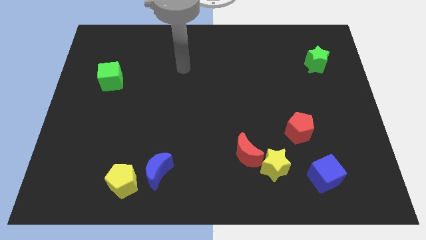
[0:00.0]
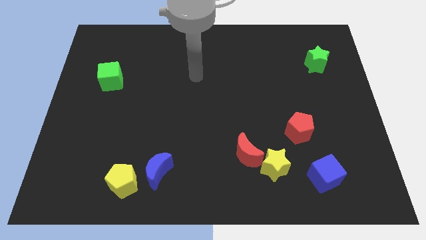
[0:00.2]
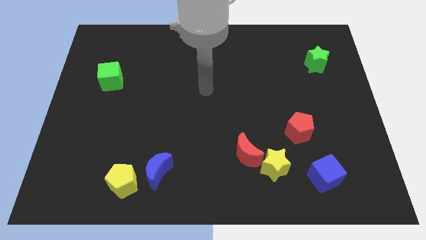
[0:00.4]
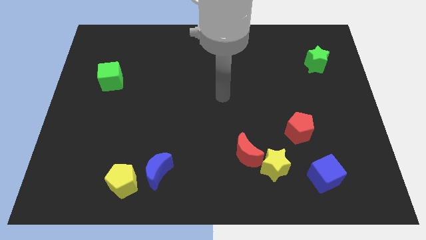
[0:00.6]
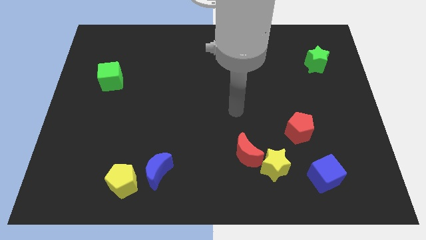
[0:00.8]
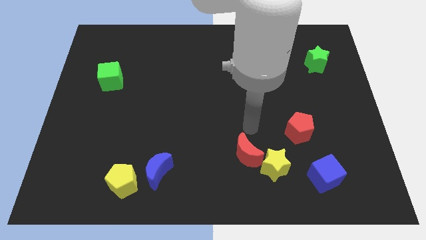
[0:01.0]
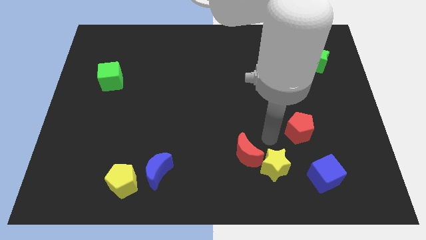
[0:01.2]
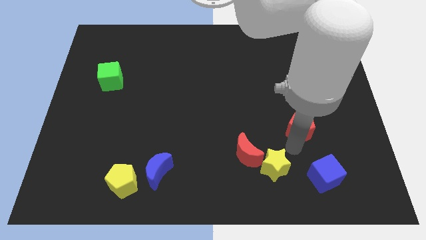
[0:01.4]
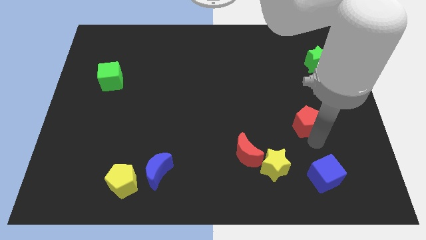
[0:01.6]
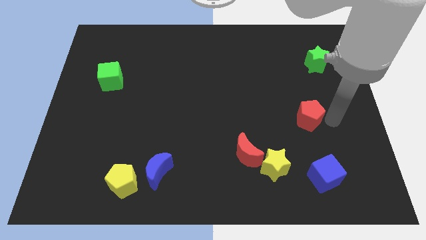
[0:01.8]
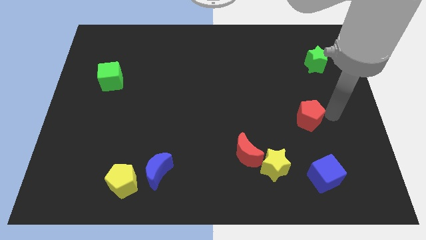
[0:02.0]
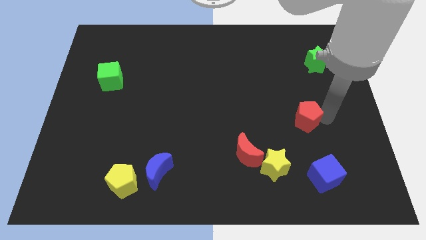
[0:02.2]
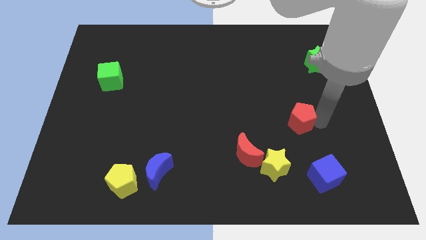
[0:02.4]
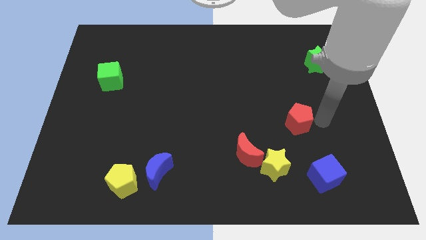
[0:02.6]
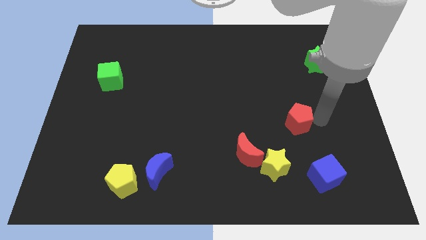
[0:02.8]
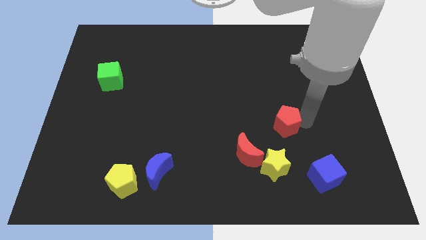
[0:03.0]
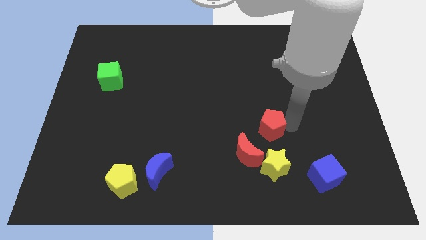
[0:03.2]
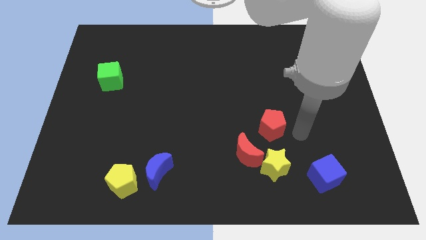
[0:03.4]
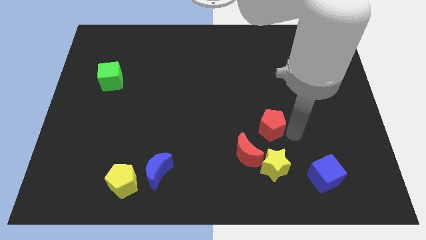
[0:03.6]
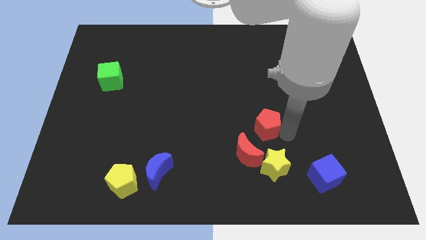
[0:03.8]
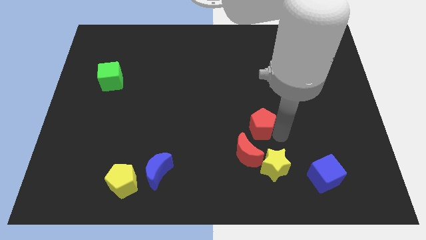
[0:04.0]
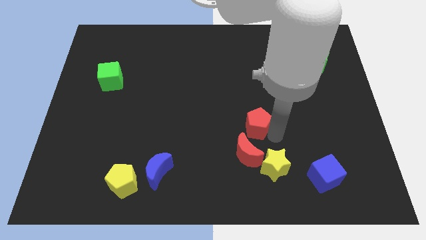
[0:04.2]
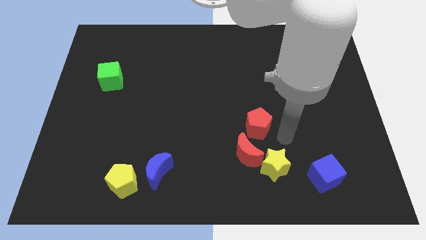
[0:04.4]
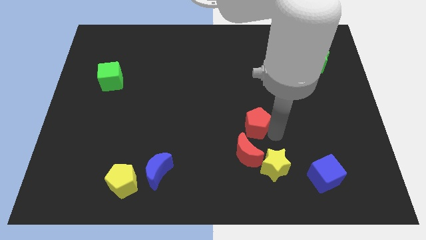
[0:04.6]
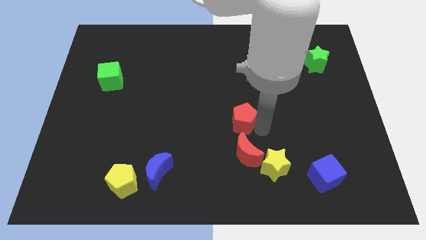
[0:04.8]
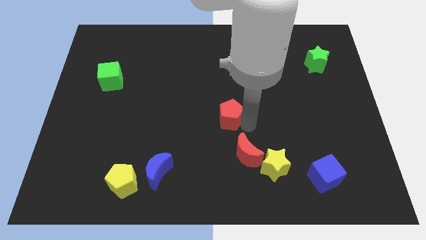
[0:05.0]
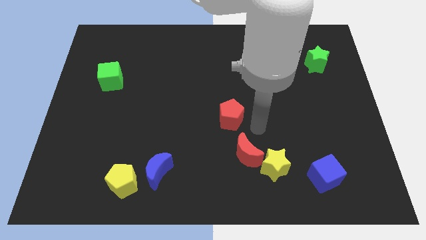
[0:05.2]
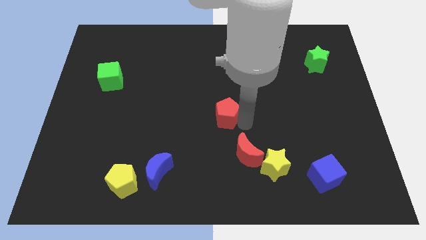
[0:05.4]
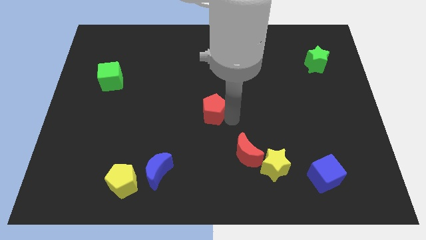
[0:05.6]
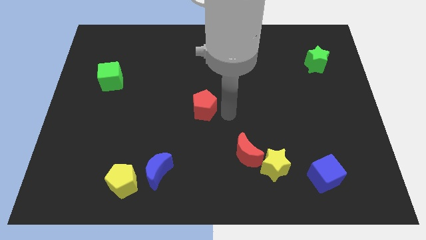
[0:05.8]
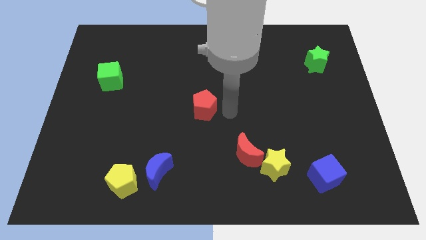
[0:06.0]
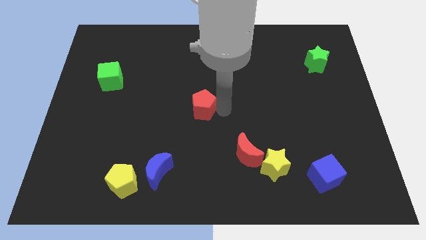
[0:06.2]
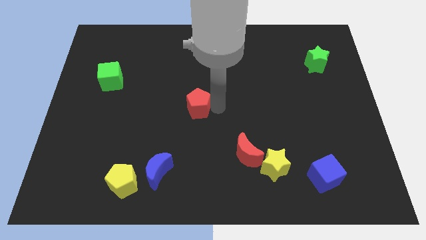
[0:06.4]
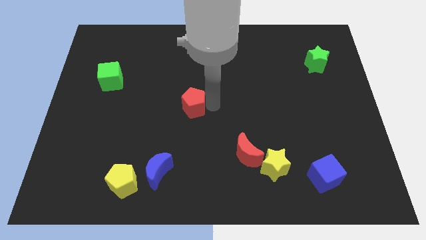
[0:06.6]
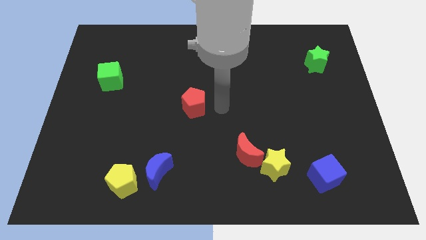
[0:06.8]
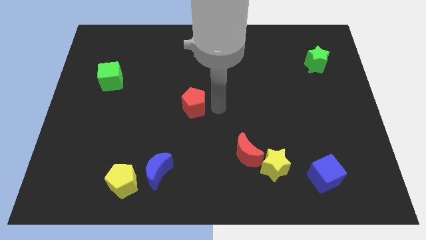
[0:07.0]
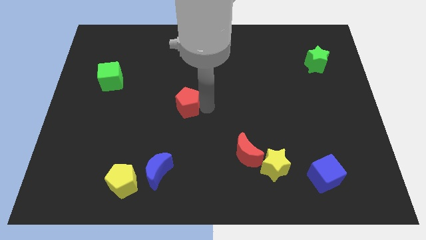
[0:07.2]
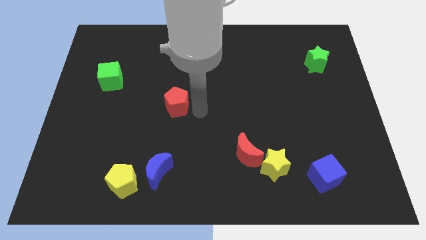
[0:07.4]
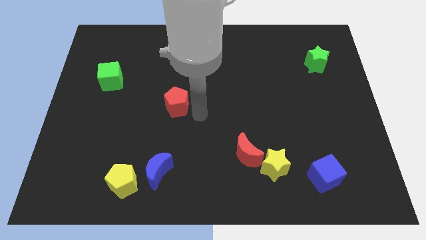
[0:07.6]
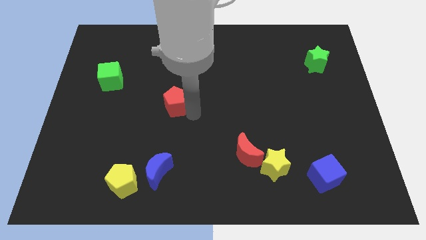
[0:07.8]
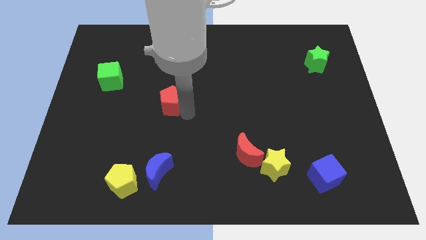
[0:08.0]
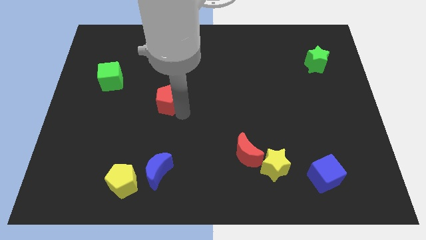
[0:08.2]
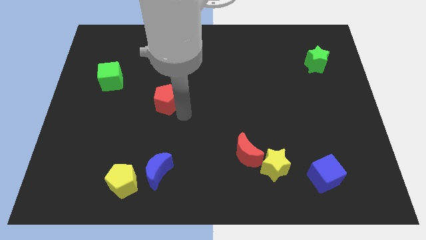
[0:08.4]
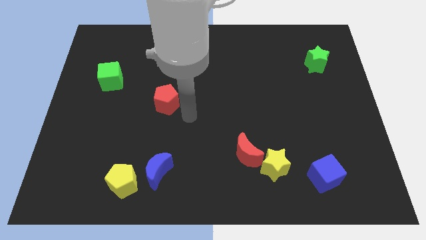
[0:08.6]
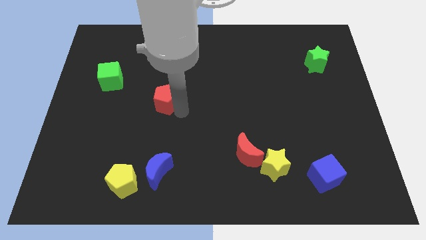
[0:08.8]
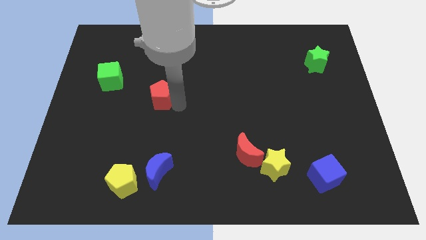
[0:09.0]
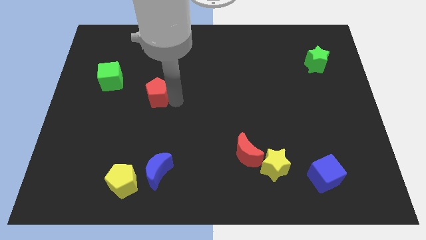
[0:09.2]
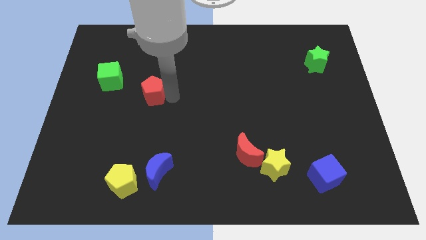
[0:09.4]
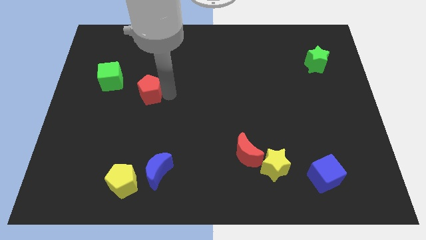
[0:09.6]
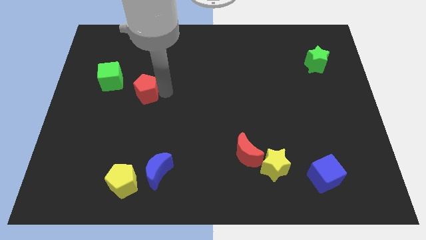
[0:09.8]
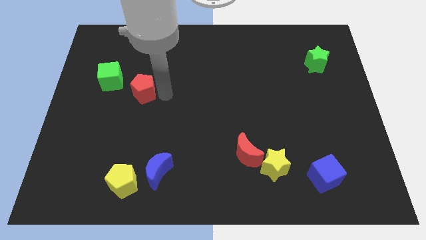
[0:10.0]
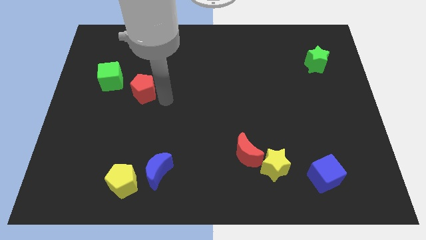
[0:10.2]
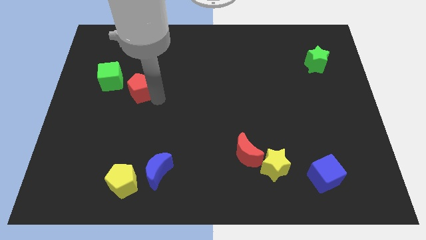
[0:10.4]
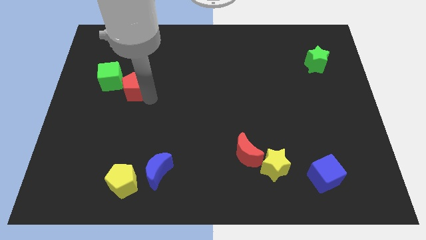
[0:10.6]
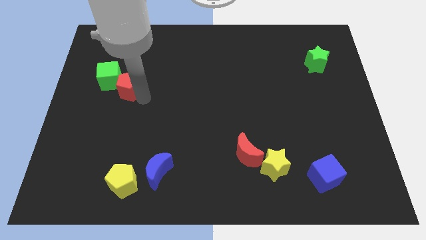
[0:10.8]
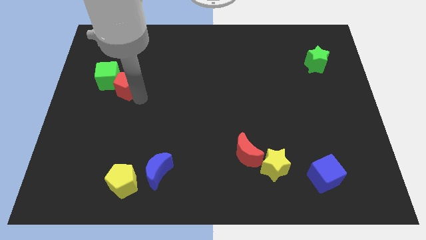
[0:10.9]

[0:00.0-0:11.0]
slide the red pentagon next to the green cube

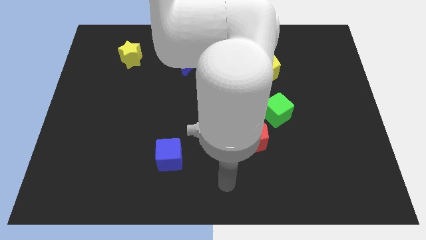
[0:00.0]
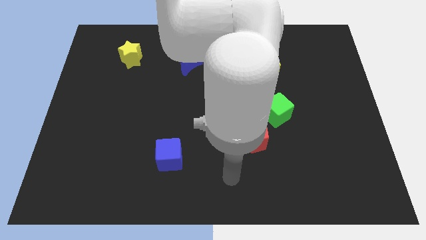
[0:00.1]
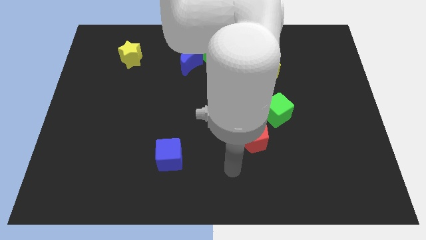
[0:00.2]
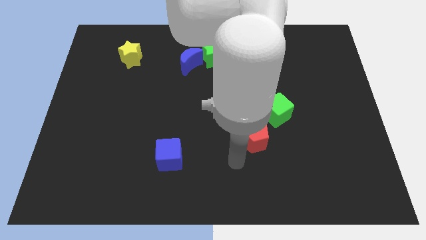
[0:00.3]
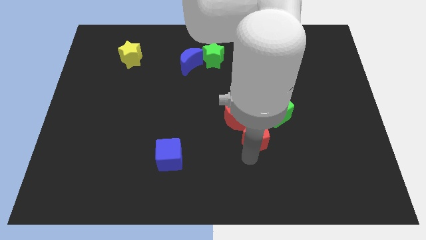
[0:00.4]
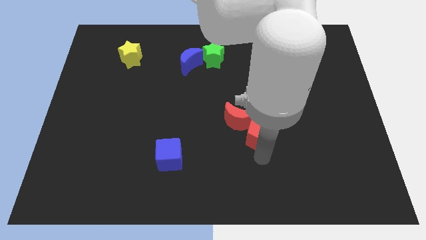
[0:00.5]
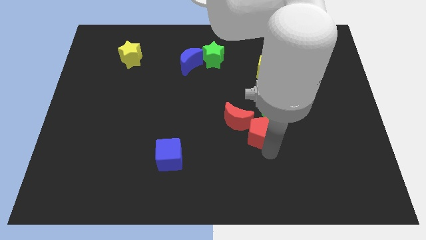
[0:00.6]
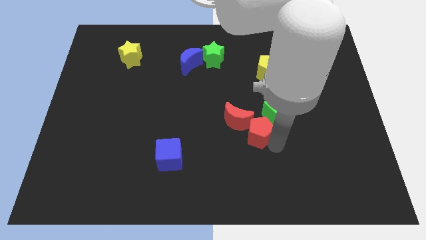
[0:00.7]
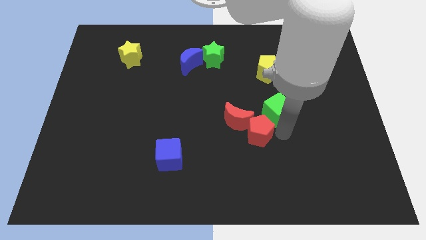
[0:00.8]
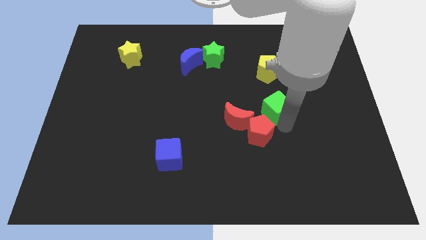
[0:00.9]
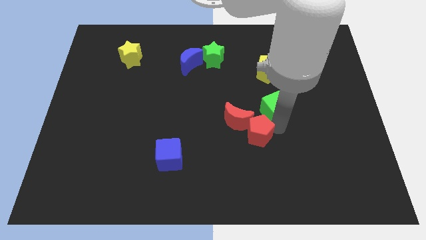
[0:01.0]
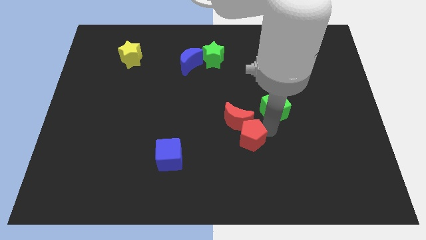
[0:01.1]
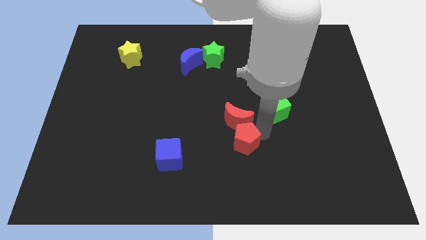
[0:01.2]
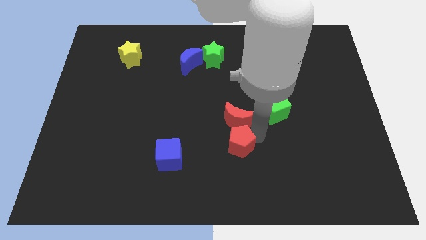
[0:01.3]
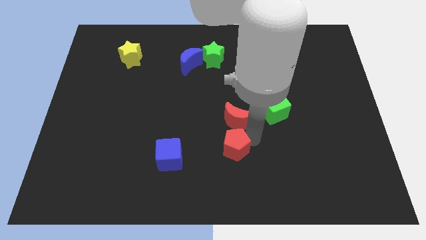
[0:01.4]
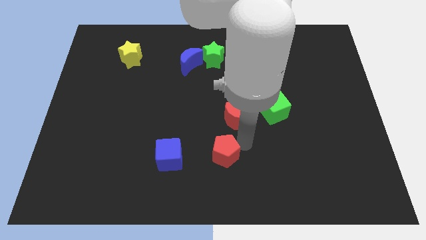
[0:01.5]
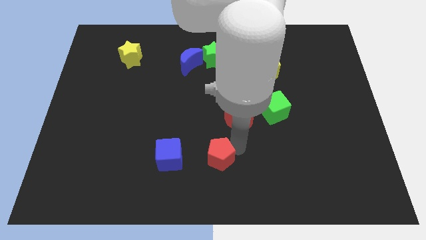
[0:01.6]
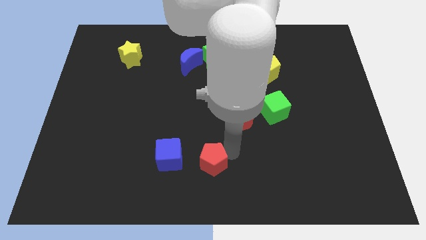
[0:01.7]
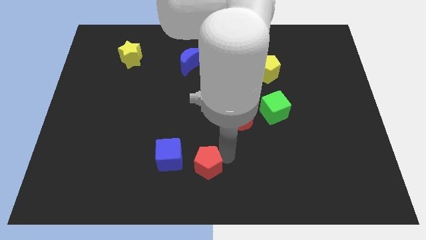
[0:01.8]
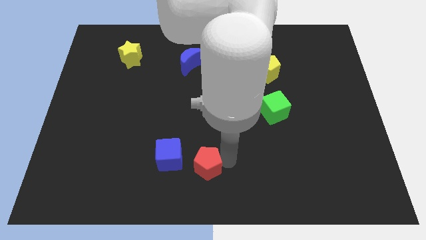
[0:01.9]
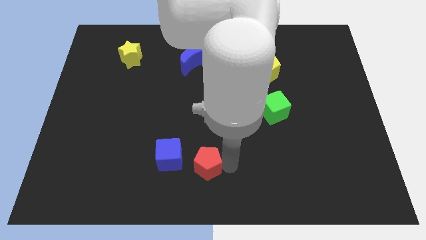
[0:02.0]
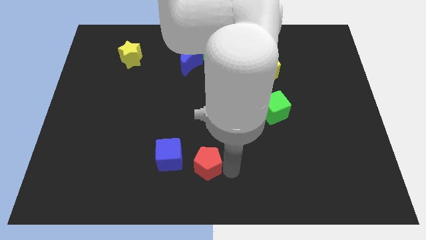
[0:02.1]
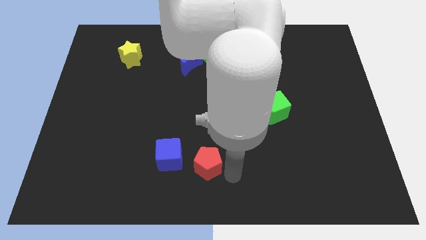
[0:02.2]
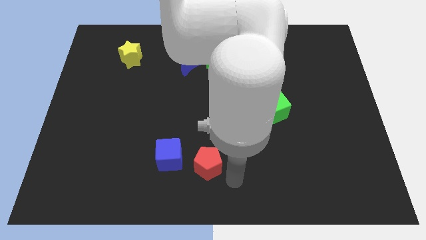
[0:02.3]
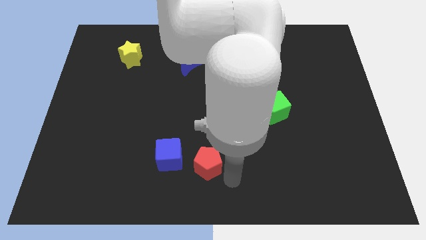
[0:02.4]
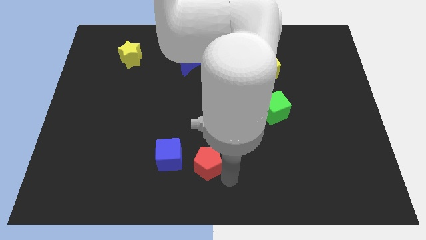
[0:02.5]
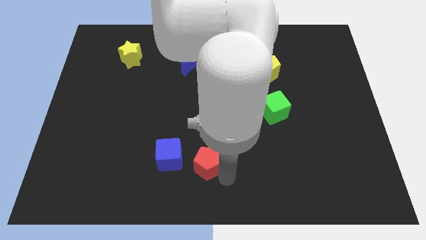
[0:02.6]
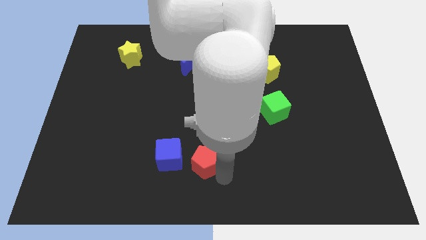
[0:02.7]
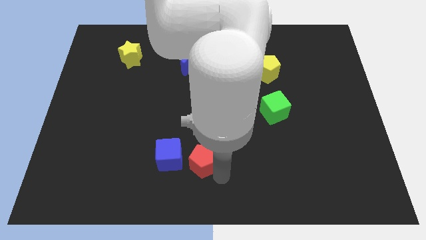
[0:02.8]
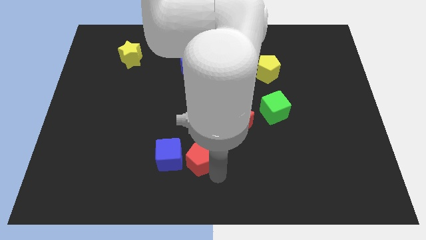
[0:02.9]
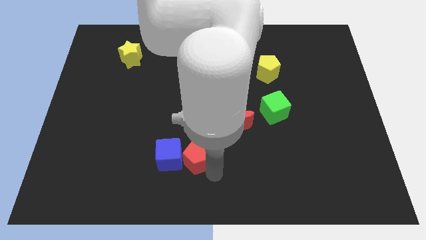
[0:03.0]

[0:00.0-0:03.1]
push the red pentagon to the blue cube
